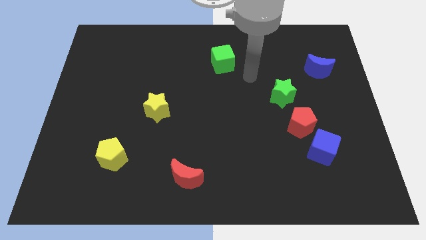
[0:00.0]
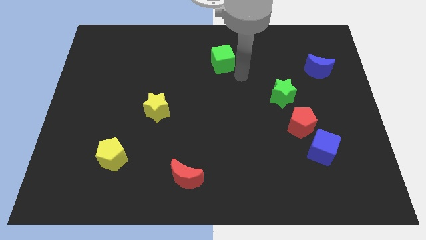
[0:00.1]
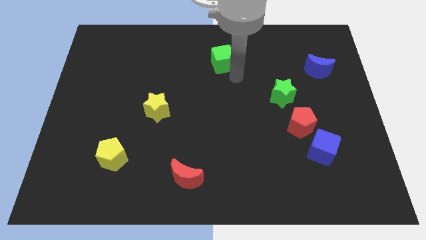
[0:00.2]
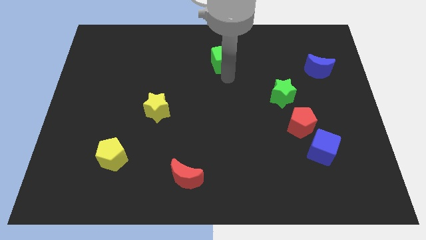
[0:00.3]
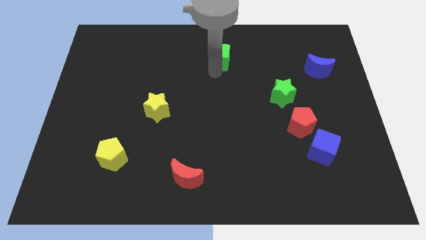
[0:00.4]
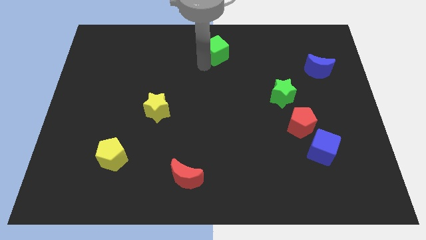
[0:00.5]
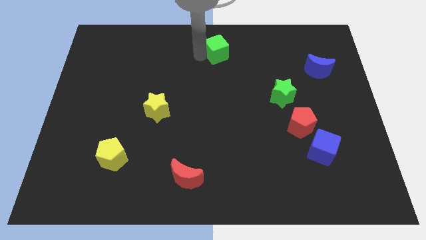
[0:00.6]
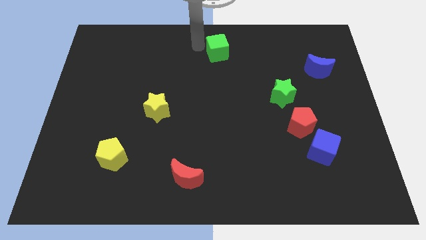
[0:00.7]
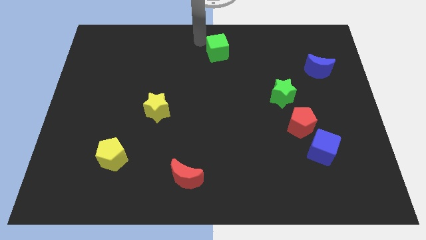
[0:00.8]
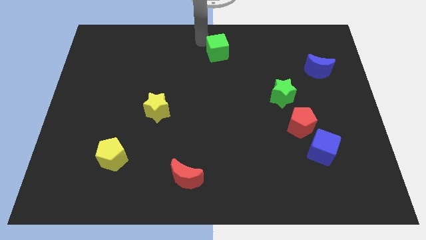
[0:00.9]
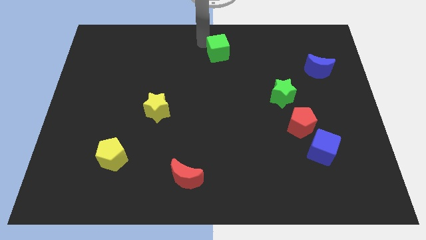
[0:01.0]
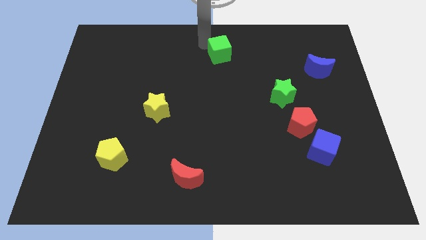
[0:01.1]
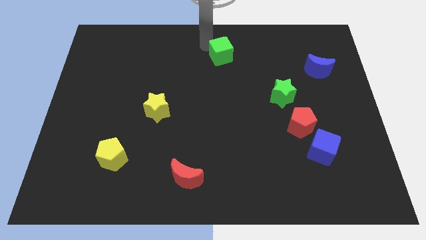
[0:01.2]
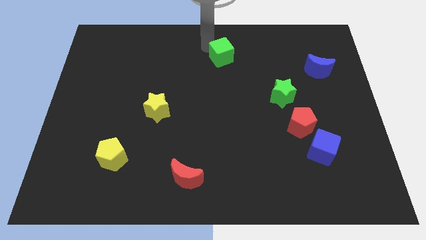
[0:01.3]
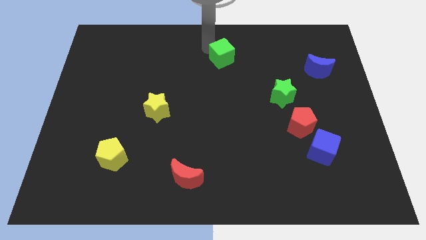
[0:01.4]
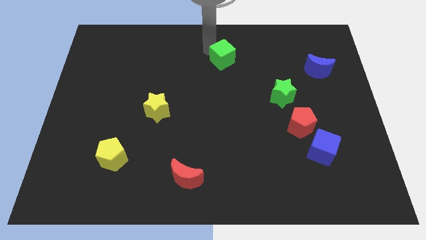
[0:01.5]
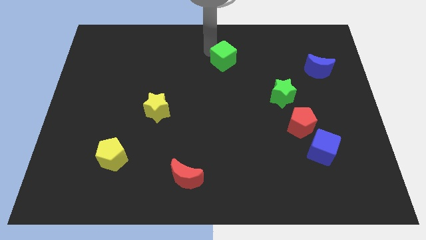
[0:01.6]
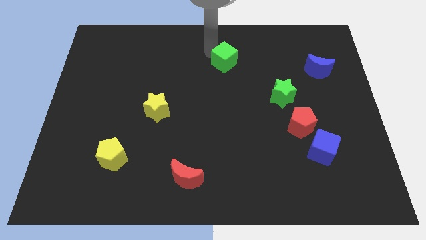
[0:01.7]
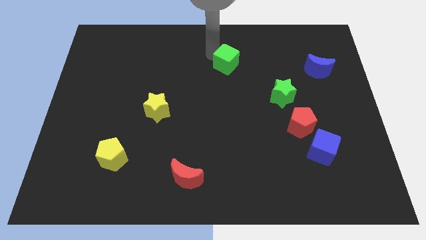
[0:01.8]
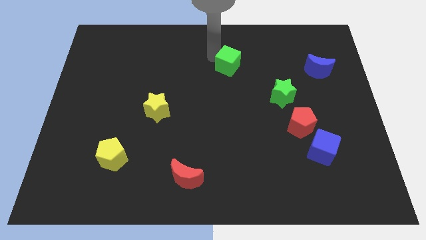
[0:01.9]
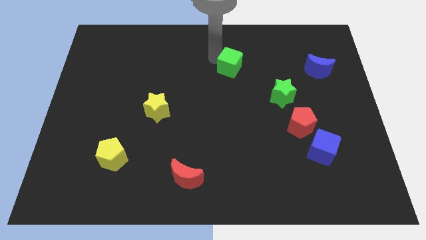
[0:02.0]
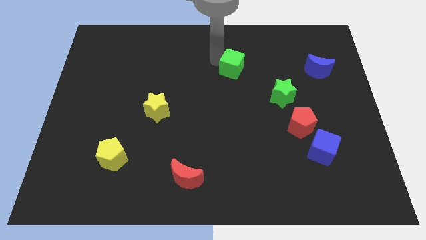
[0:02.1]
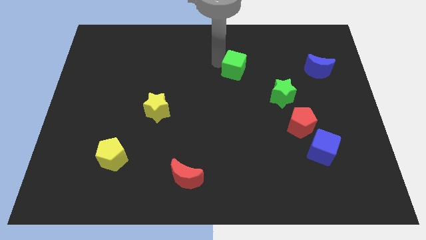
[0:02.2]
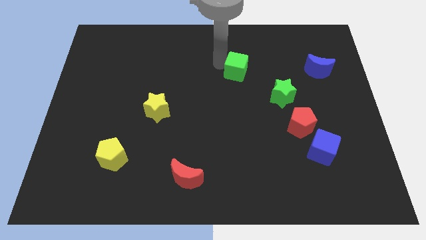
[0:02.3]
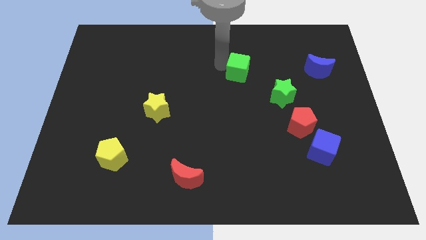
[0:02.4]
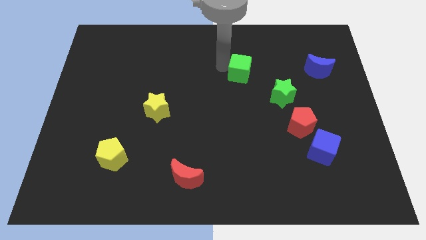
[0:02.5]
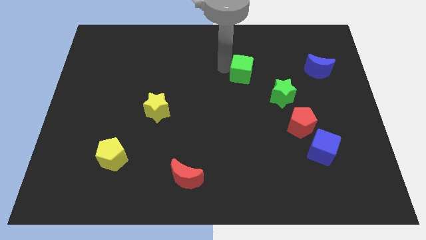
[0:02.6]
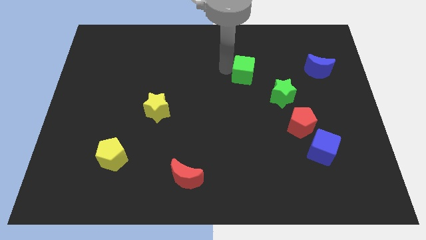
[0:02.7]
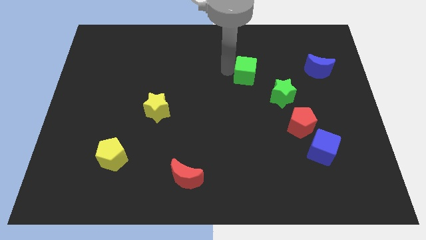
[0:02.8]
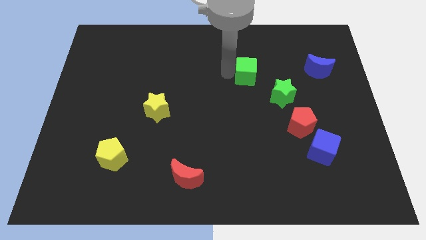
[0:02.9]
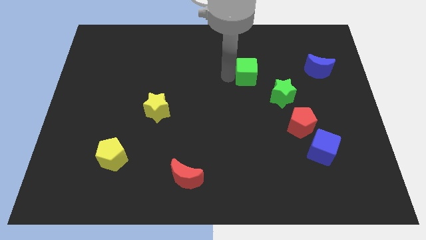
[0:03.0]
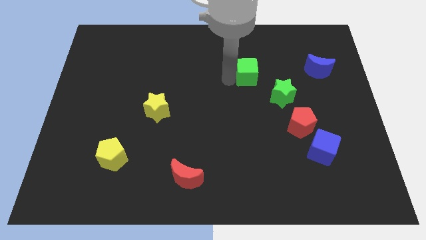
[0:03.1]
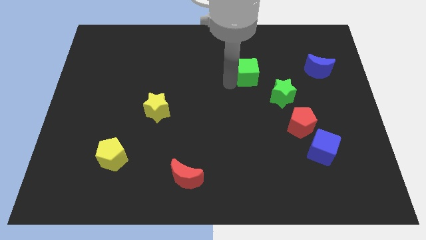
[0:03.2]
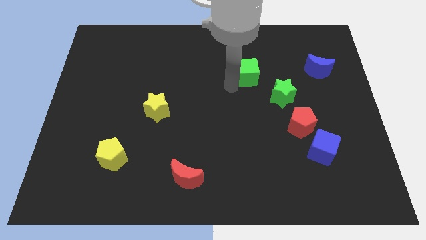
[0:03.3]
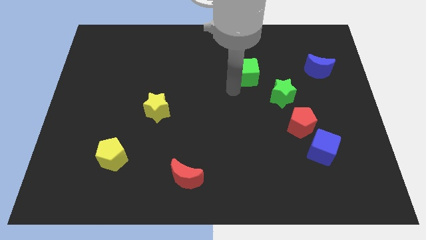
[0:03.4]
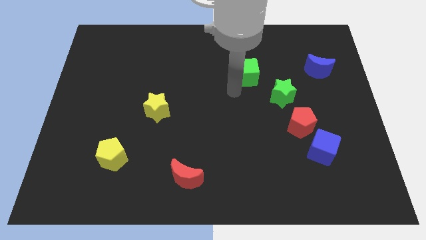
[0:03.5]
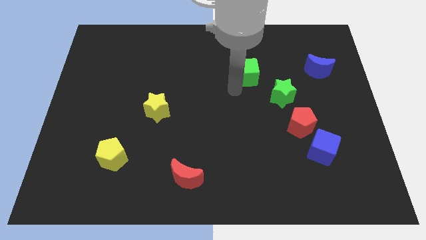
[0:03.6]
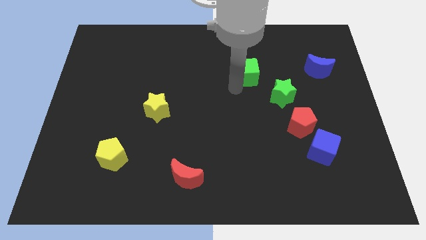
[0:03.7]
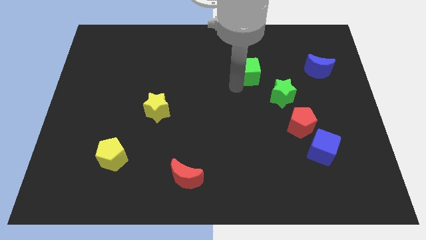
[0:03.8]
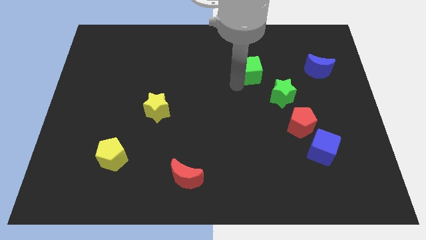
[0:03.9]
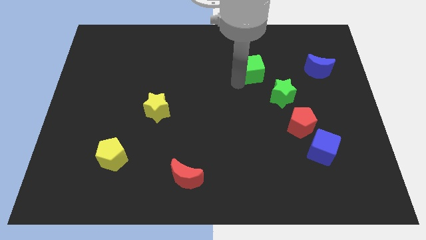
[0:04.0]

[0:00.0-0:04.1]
push the green cube a bit right

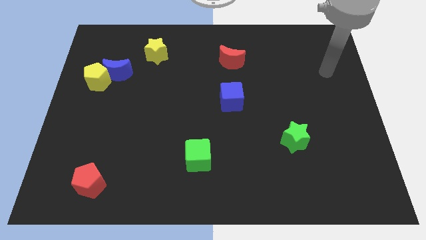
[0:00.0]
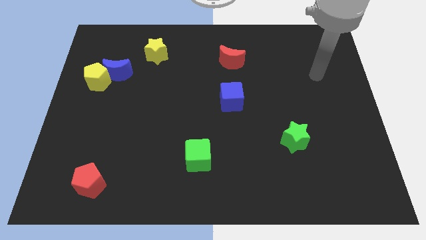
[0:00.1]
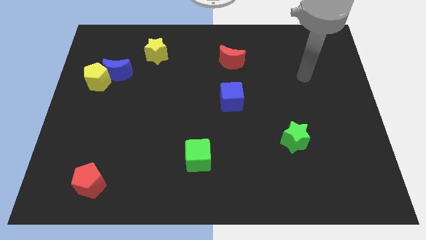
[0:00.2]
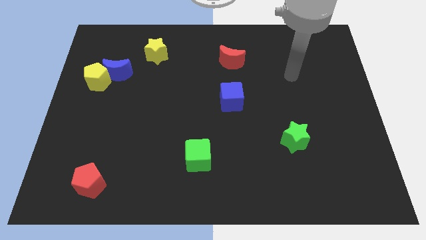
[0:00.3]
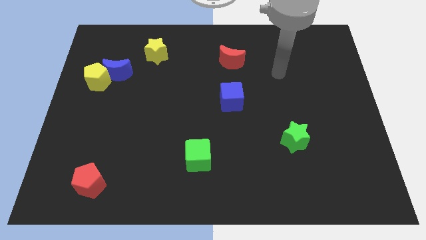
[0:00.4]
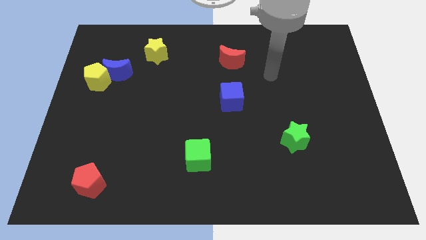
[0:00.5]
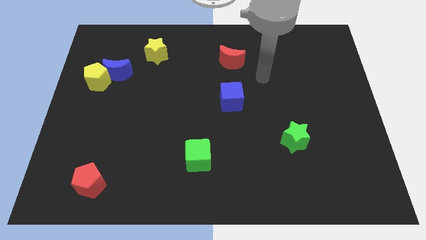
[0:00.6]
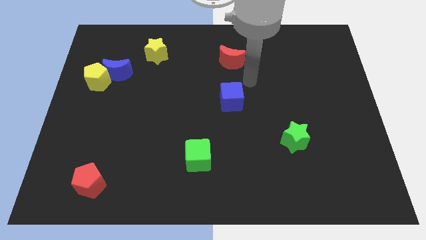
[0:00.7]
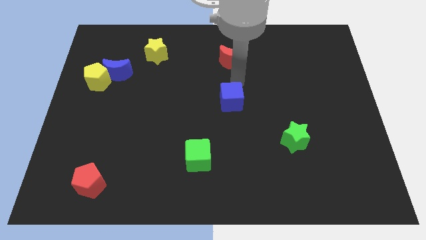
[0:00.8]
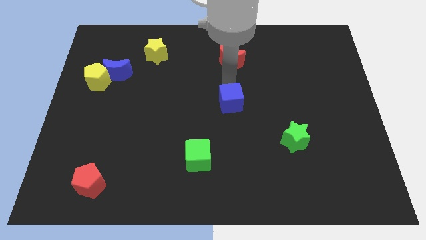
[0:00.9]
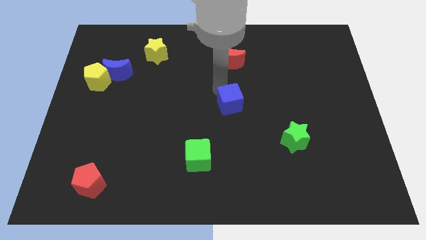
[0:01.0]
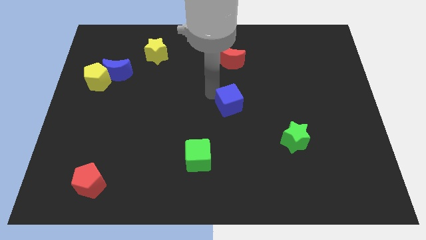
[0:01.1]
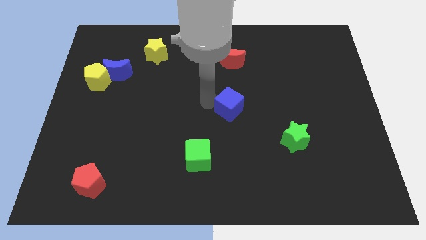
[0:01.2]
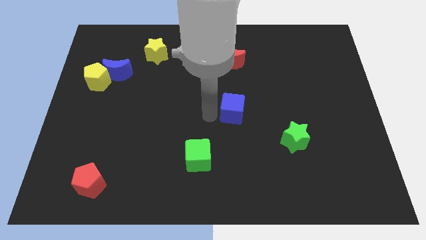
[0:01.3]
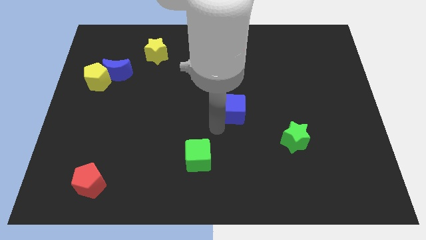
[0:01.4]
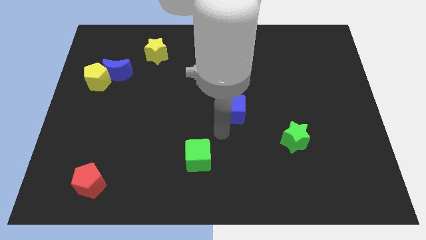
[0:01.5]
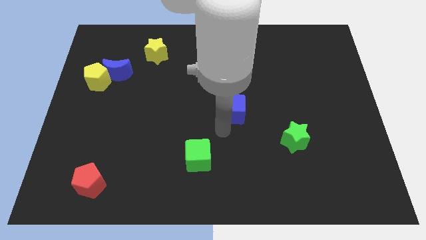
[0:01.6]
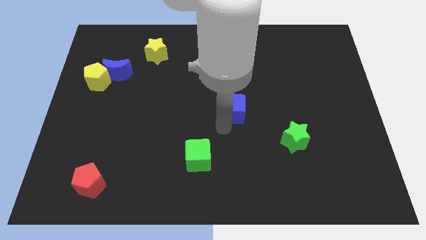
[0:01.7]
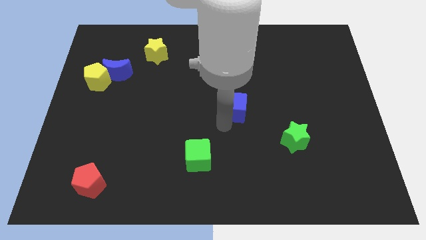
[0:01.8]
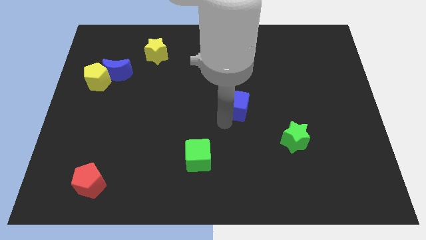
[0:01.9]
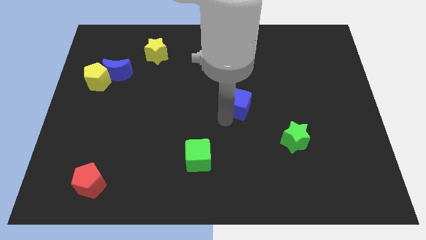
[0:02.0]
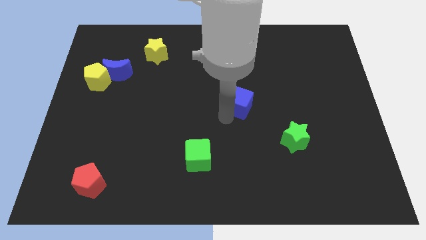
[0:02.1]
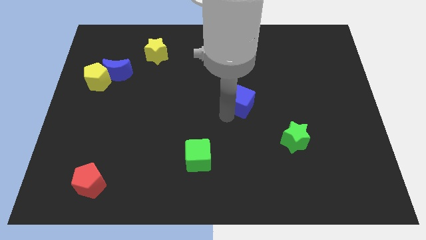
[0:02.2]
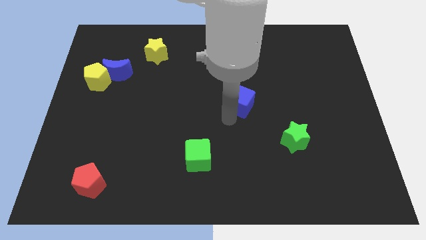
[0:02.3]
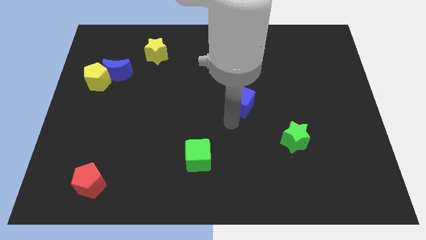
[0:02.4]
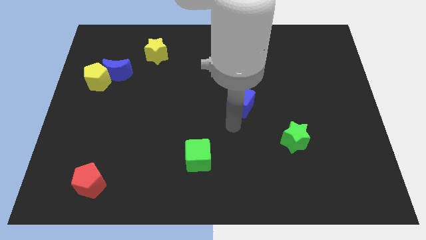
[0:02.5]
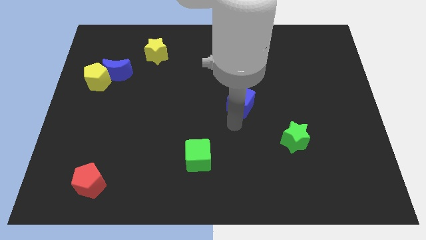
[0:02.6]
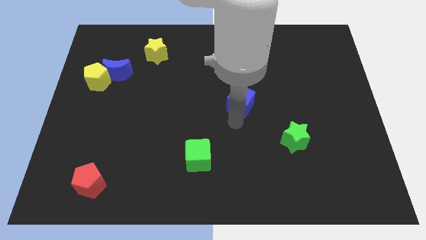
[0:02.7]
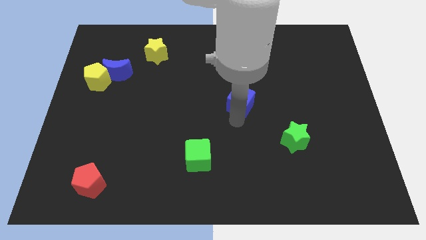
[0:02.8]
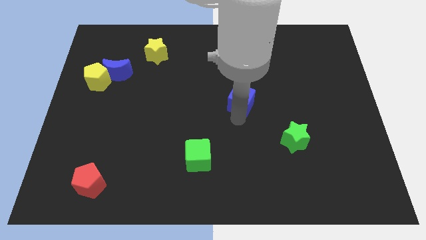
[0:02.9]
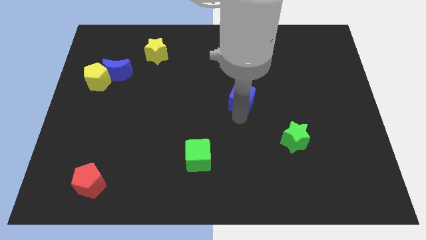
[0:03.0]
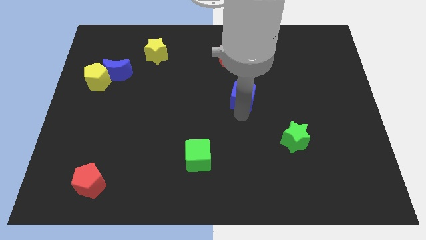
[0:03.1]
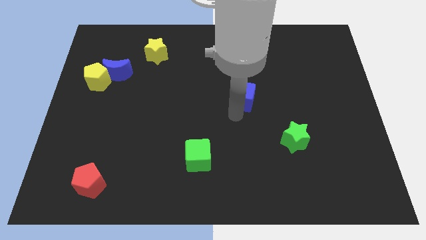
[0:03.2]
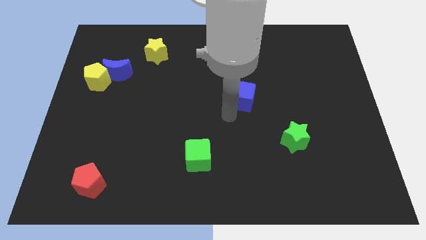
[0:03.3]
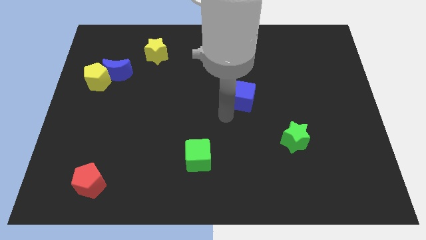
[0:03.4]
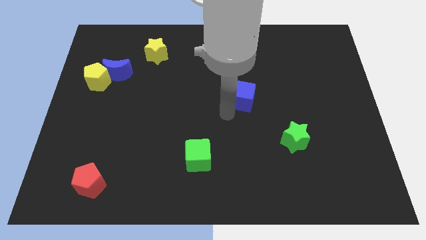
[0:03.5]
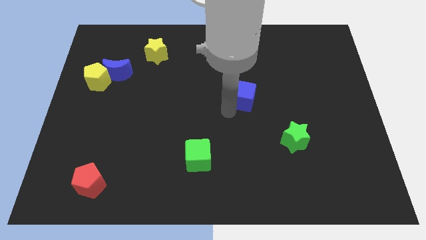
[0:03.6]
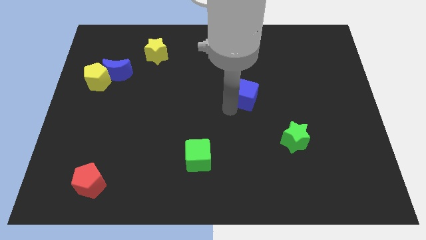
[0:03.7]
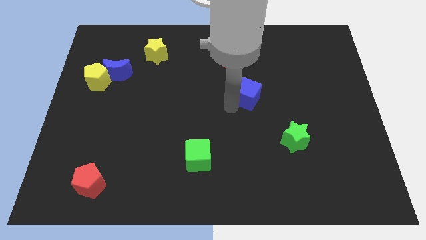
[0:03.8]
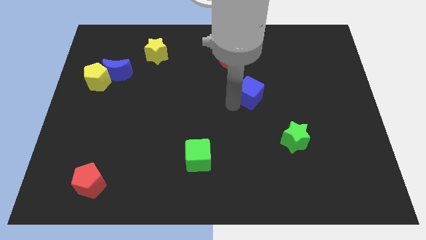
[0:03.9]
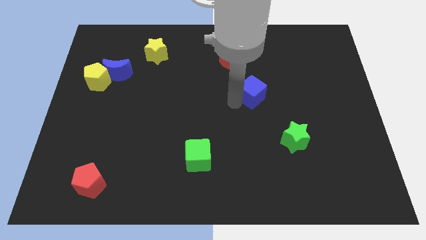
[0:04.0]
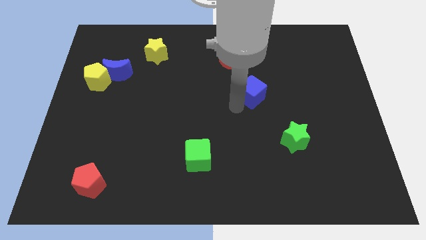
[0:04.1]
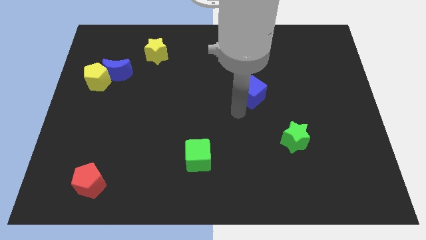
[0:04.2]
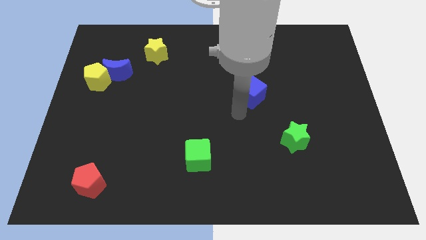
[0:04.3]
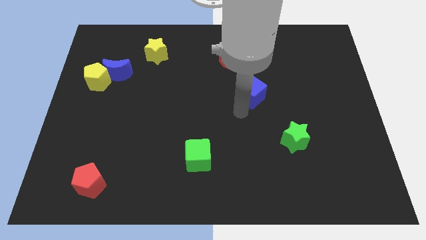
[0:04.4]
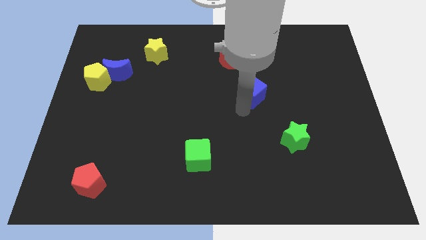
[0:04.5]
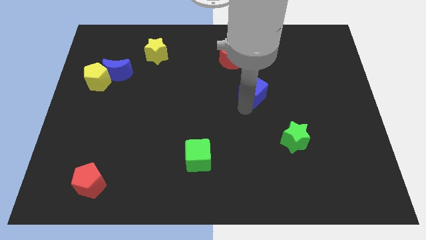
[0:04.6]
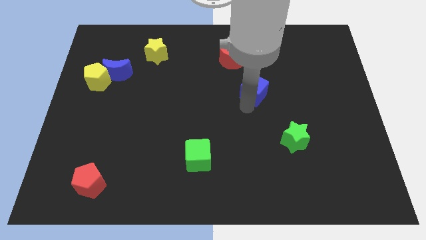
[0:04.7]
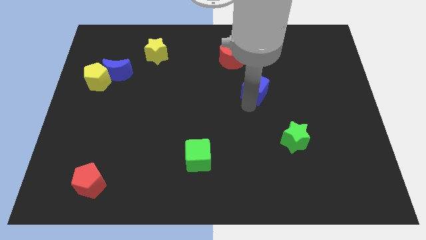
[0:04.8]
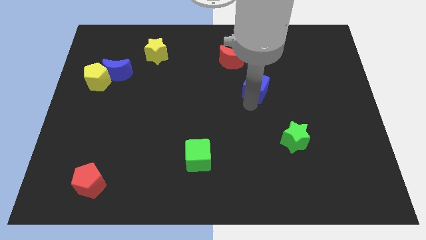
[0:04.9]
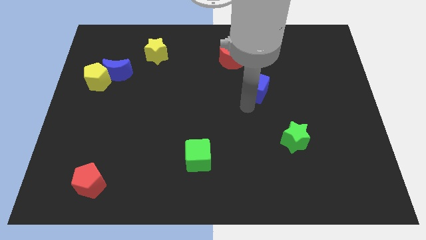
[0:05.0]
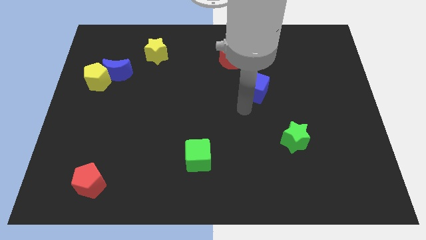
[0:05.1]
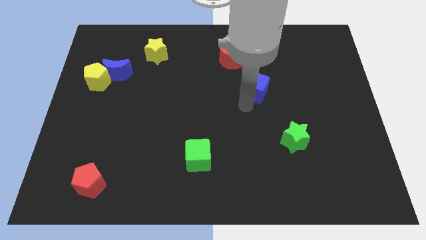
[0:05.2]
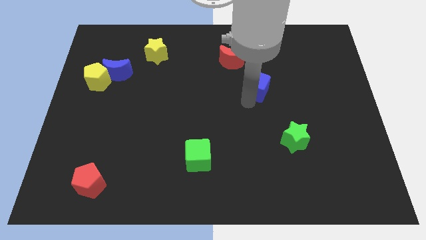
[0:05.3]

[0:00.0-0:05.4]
slide the blue cube a little up and right diagonally
